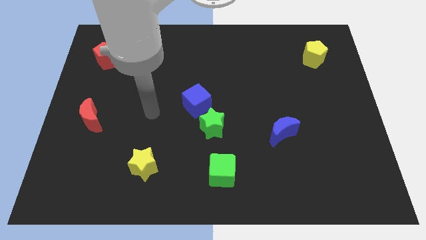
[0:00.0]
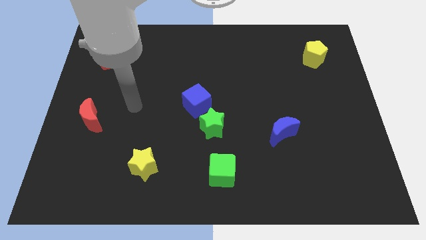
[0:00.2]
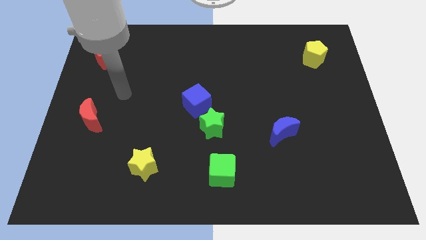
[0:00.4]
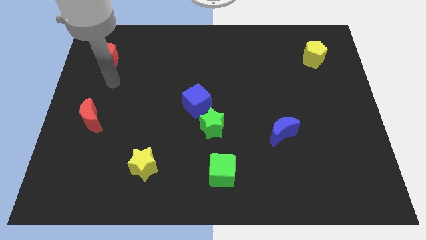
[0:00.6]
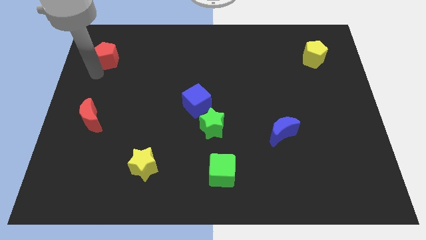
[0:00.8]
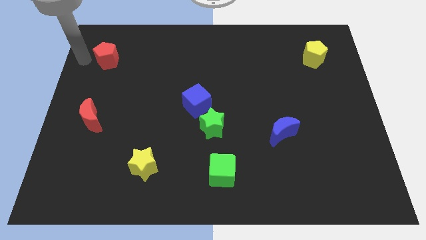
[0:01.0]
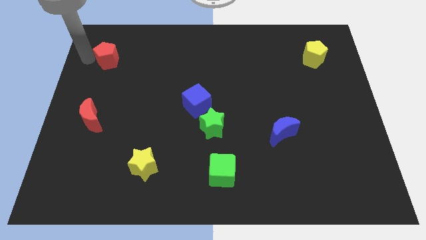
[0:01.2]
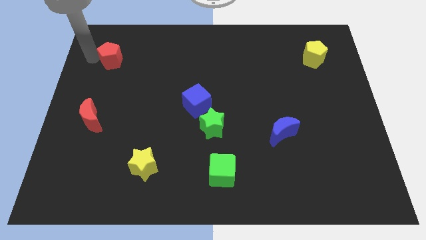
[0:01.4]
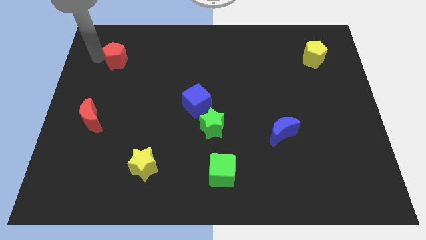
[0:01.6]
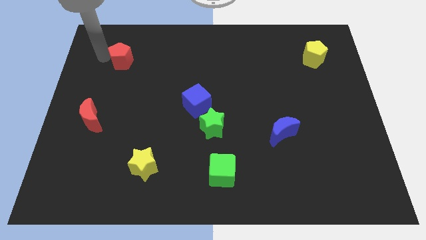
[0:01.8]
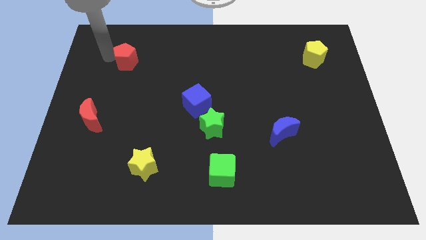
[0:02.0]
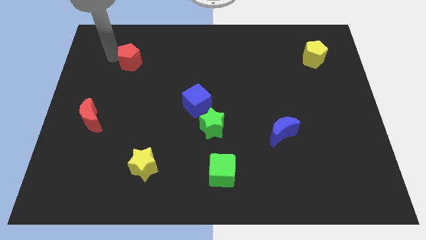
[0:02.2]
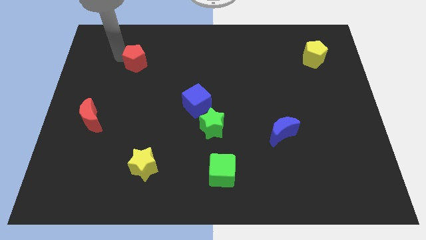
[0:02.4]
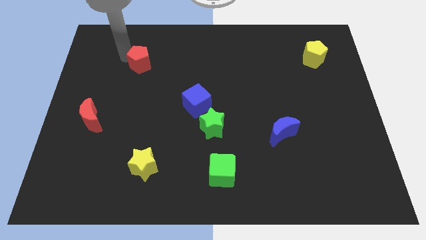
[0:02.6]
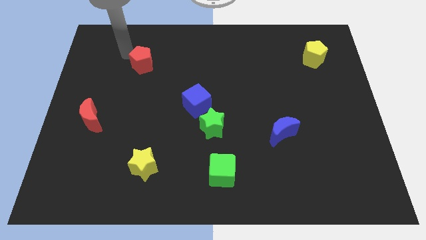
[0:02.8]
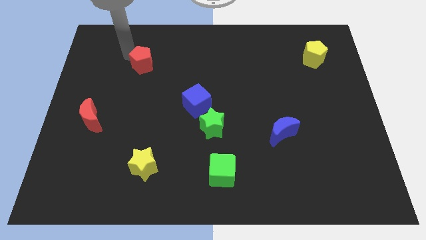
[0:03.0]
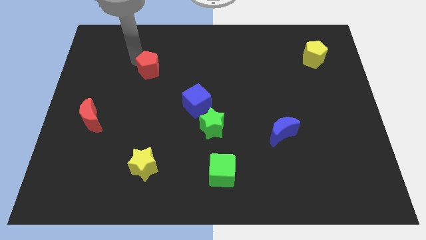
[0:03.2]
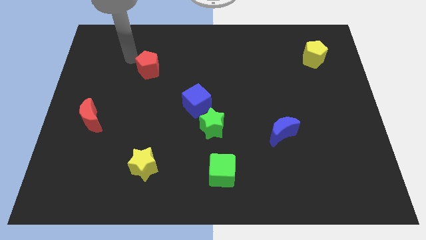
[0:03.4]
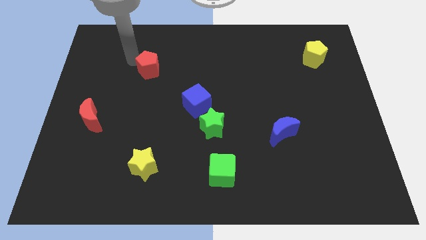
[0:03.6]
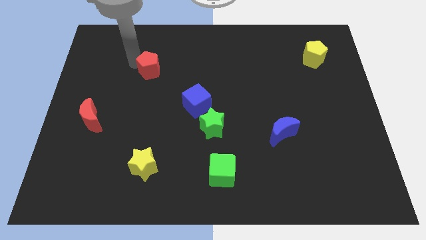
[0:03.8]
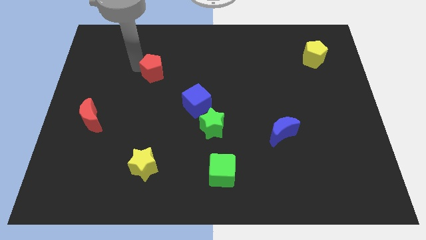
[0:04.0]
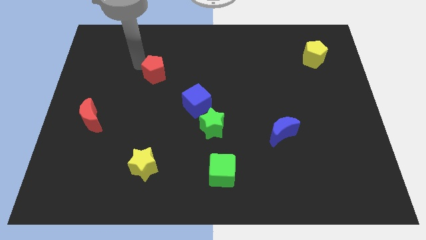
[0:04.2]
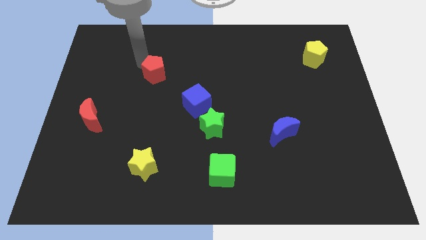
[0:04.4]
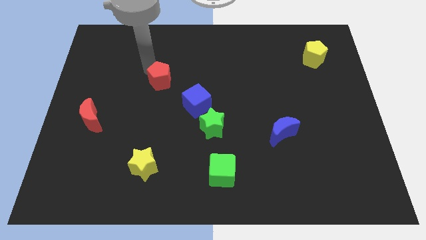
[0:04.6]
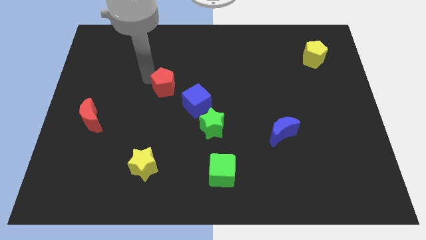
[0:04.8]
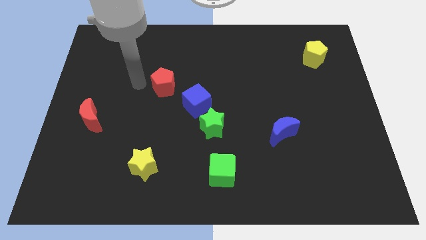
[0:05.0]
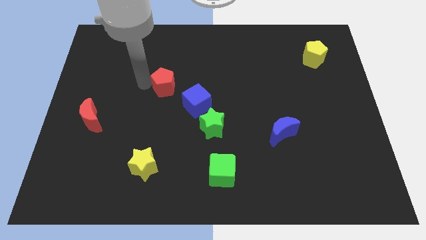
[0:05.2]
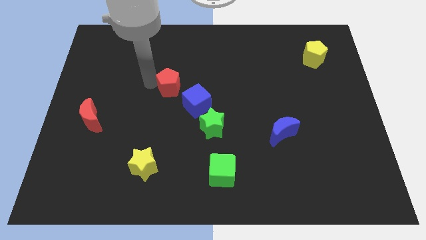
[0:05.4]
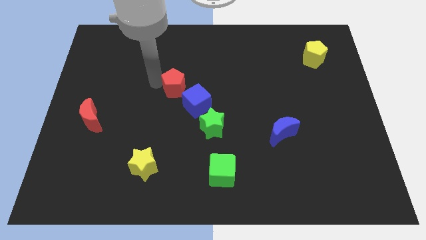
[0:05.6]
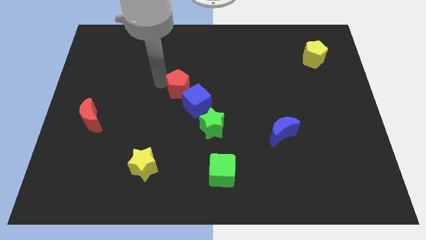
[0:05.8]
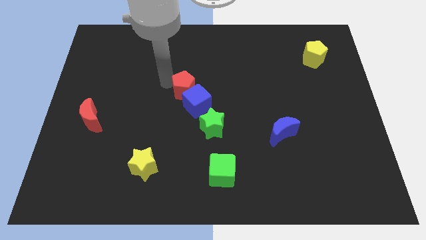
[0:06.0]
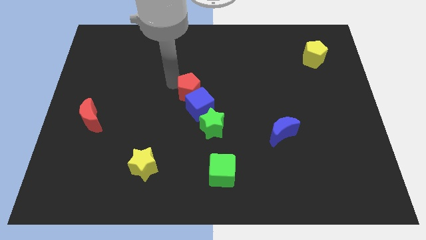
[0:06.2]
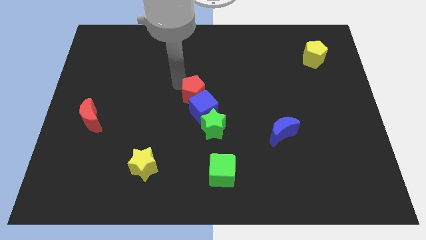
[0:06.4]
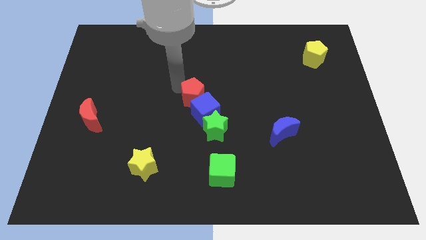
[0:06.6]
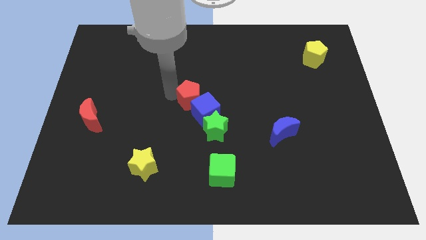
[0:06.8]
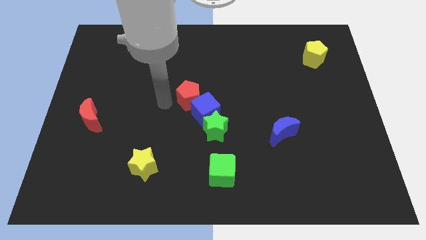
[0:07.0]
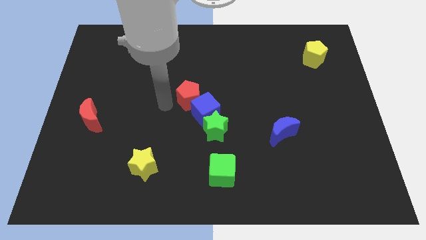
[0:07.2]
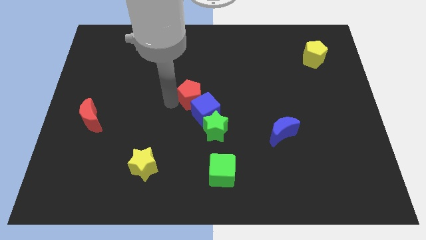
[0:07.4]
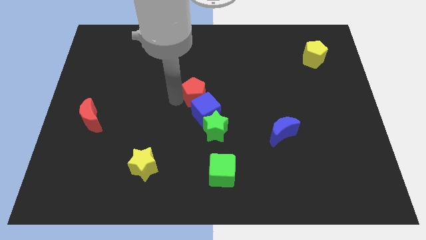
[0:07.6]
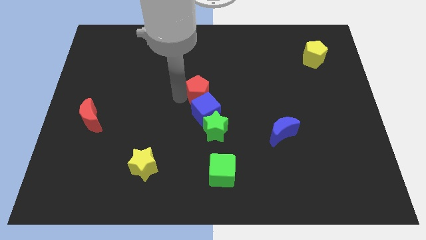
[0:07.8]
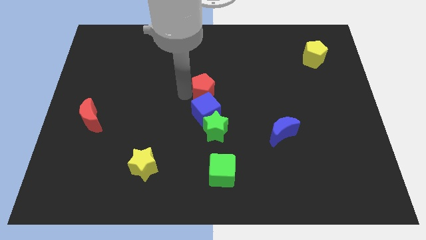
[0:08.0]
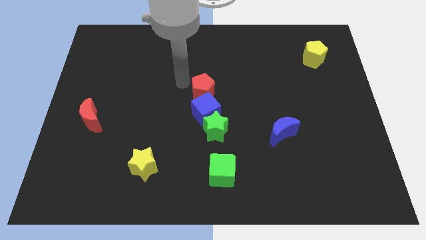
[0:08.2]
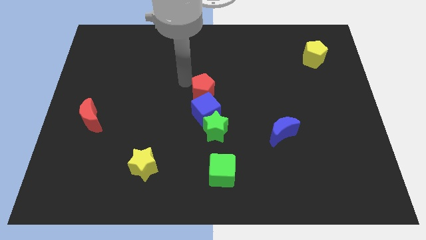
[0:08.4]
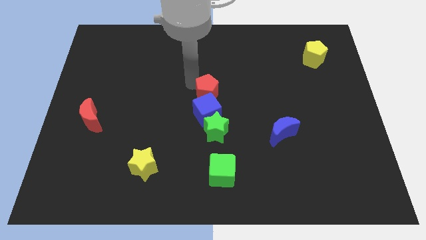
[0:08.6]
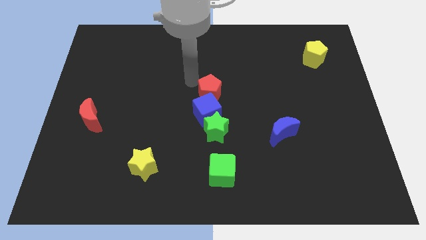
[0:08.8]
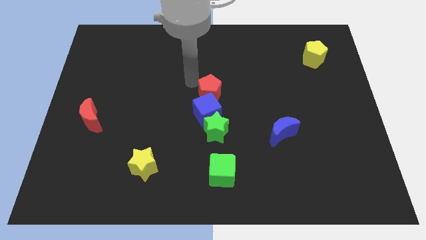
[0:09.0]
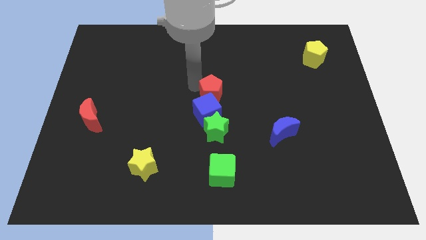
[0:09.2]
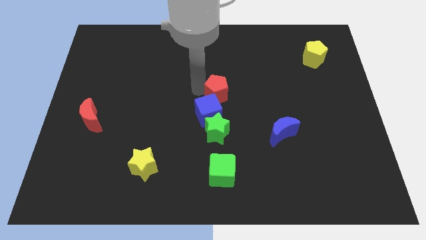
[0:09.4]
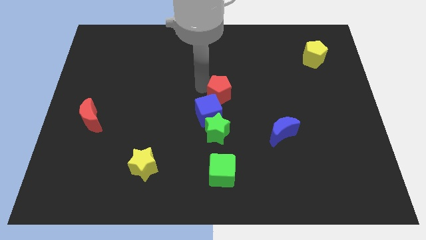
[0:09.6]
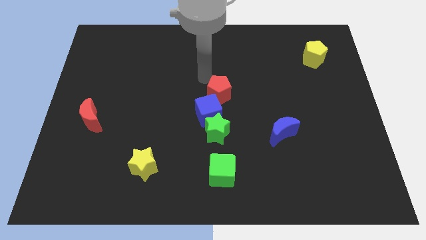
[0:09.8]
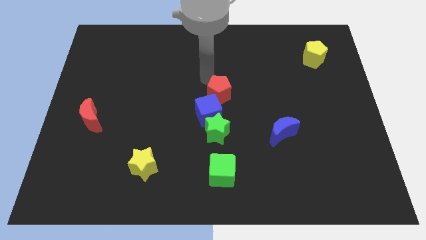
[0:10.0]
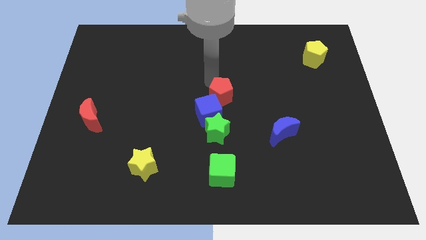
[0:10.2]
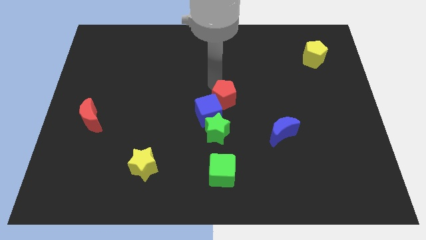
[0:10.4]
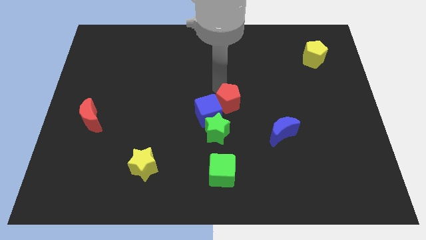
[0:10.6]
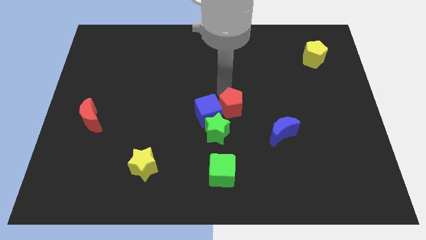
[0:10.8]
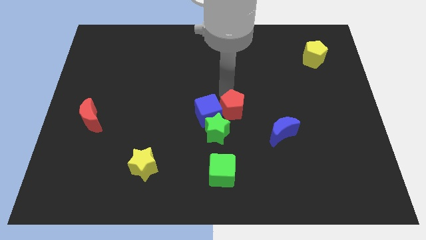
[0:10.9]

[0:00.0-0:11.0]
move the red pentagon to the bottom right side of the blue cube

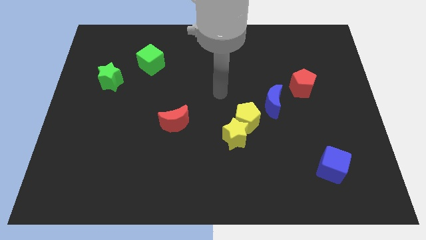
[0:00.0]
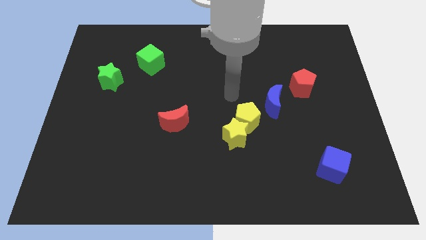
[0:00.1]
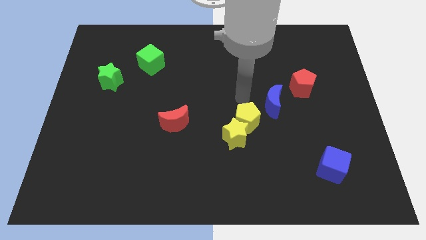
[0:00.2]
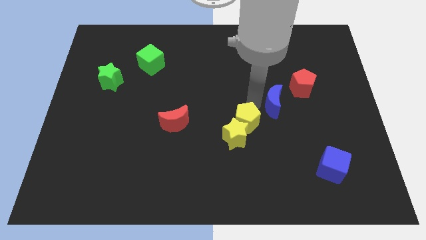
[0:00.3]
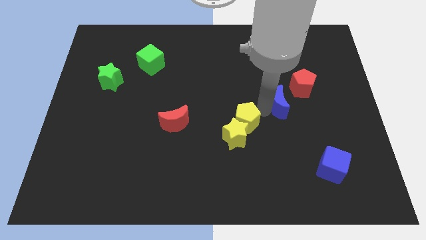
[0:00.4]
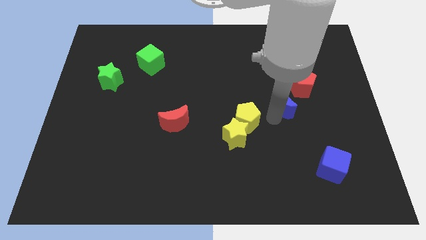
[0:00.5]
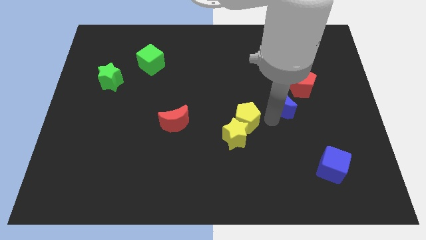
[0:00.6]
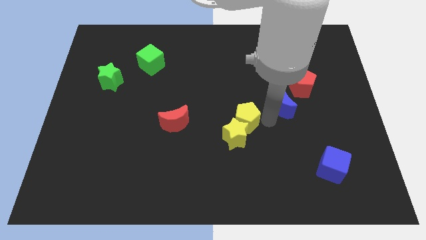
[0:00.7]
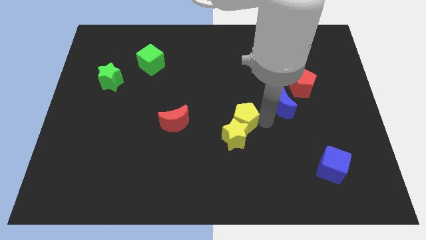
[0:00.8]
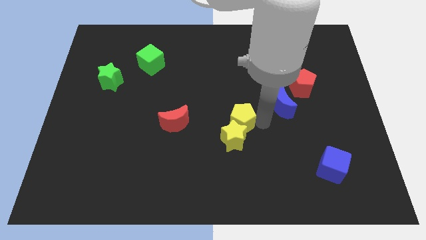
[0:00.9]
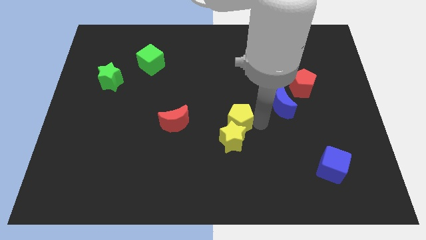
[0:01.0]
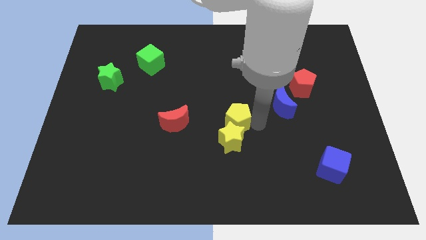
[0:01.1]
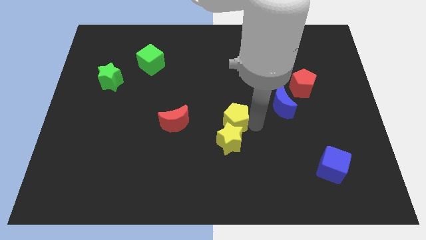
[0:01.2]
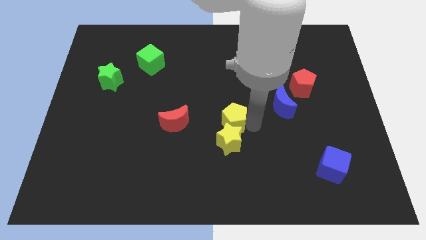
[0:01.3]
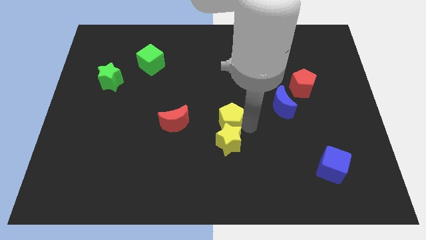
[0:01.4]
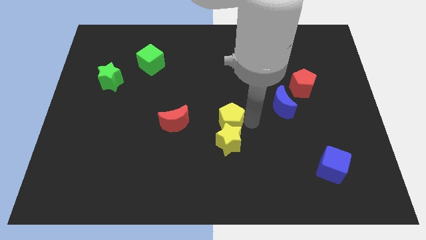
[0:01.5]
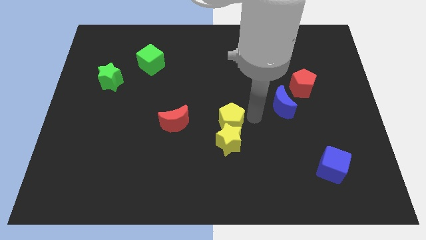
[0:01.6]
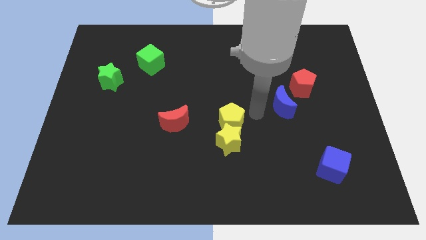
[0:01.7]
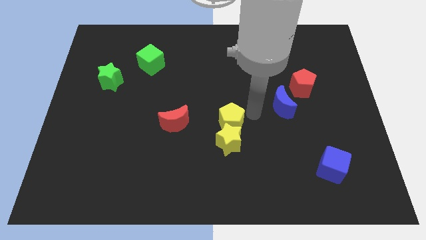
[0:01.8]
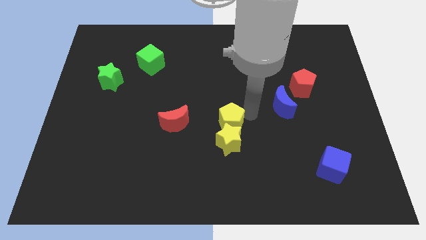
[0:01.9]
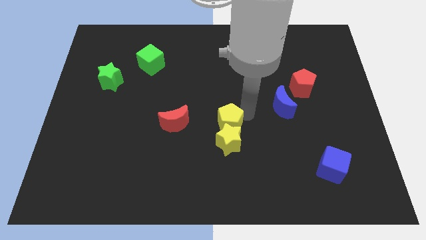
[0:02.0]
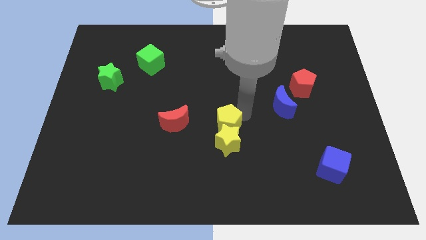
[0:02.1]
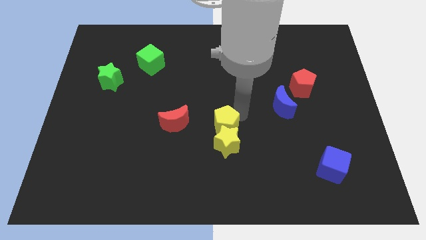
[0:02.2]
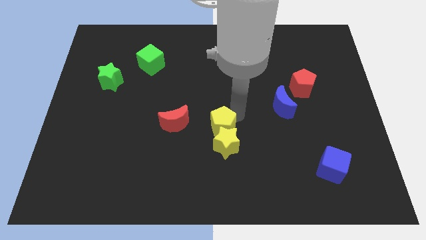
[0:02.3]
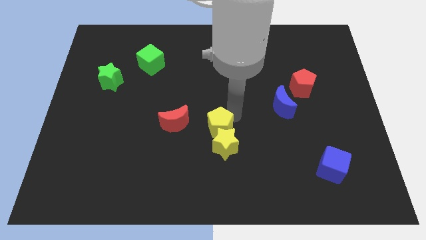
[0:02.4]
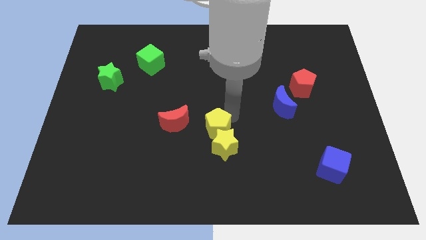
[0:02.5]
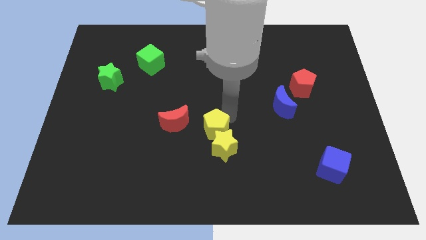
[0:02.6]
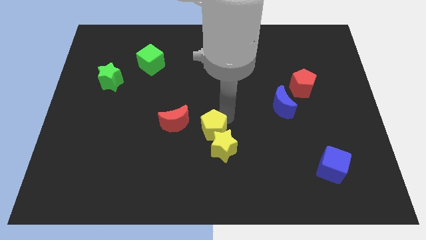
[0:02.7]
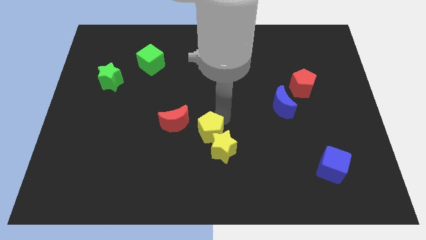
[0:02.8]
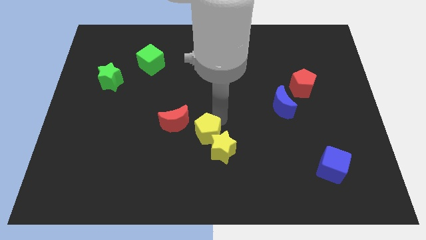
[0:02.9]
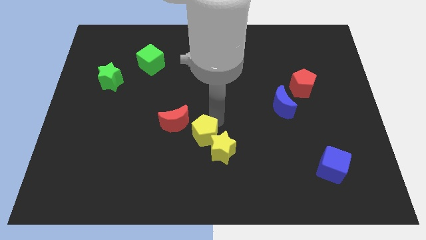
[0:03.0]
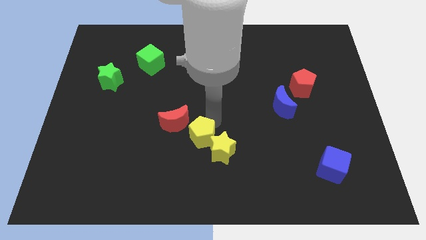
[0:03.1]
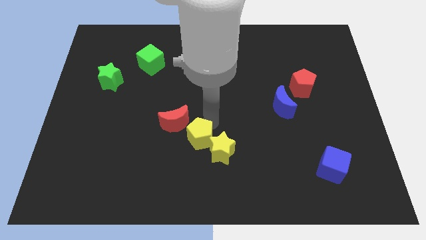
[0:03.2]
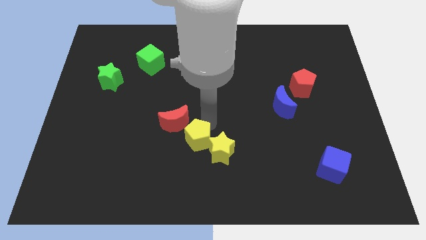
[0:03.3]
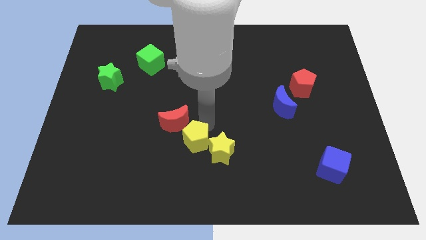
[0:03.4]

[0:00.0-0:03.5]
push the yellow pentagon to the bottom of the red moon
